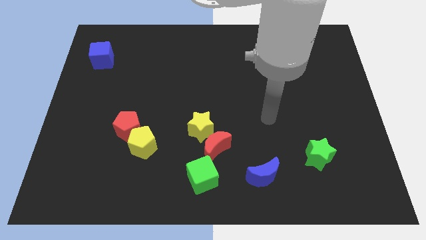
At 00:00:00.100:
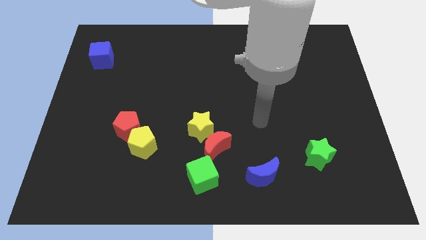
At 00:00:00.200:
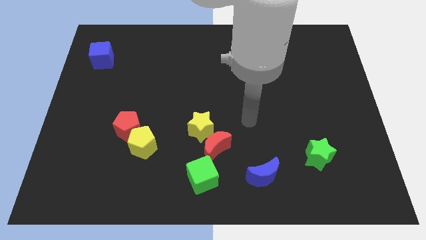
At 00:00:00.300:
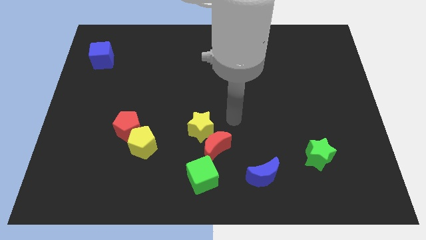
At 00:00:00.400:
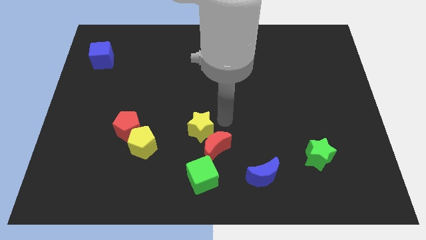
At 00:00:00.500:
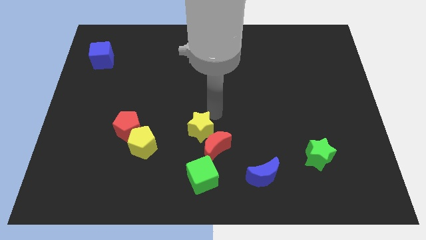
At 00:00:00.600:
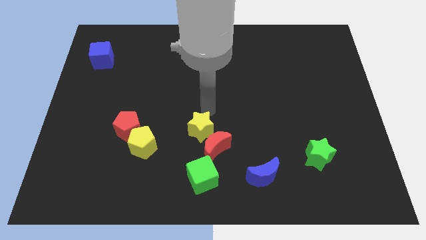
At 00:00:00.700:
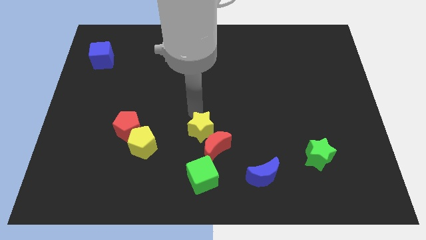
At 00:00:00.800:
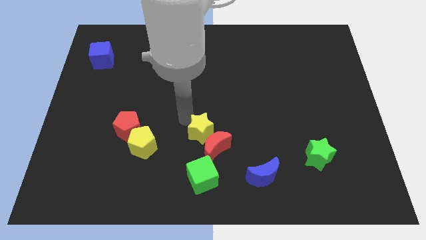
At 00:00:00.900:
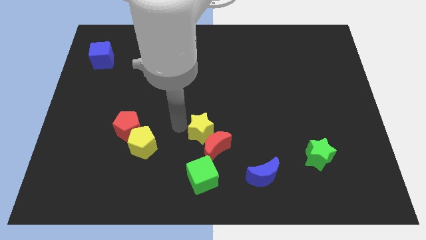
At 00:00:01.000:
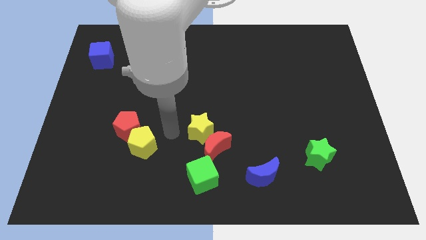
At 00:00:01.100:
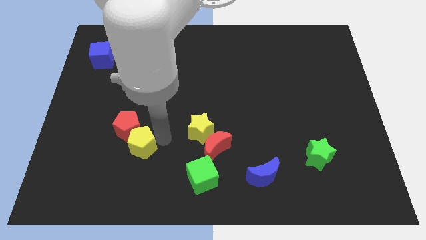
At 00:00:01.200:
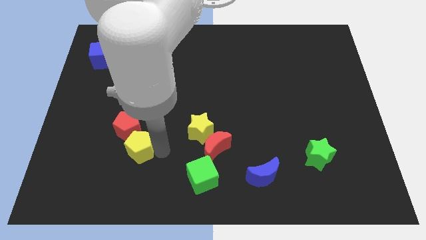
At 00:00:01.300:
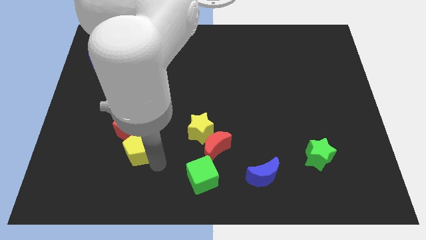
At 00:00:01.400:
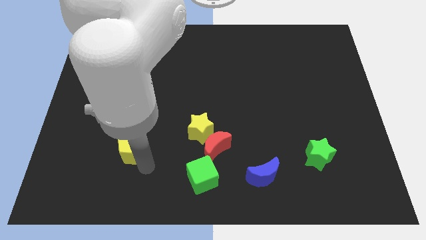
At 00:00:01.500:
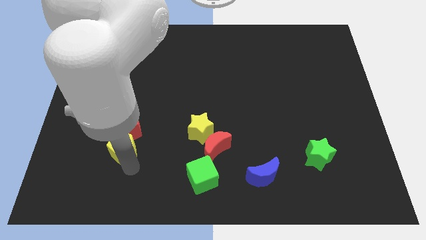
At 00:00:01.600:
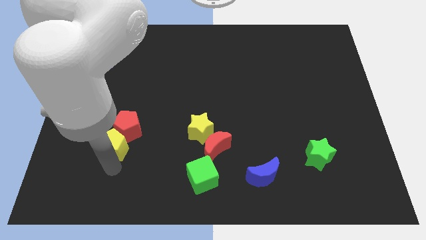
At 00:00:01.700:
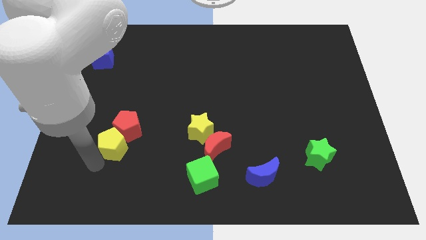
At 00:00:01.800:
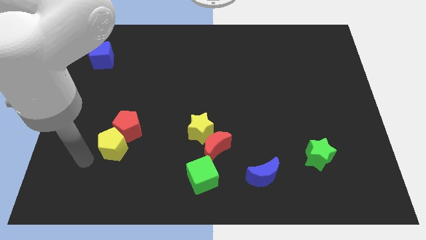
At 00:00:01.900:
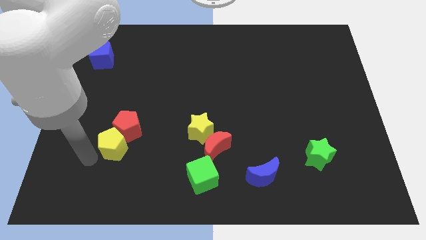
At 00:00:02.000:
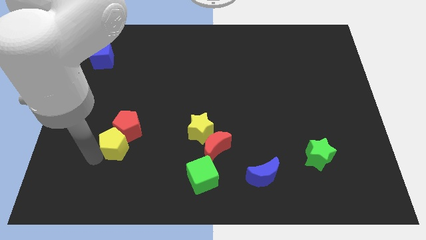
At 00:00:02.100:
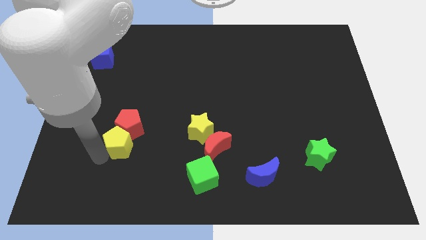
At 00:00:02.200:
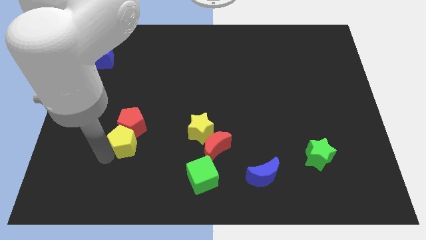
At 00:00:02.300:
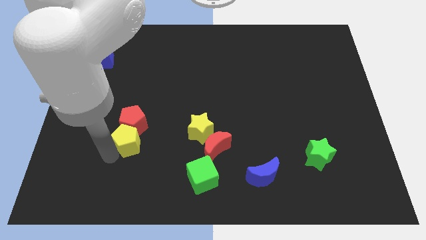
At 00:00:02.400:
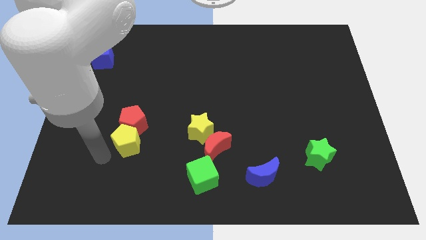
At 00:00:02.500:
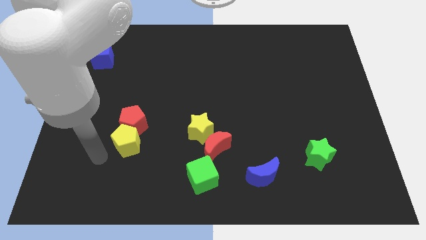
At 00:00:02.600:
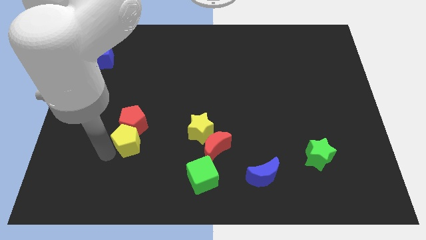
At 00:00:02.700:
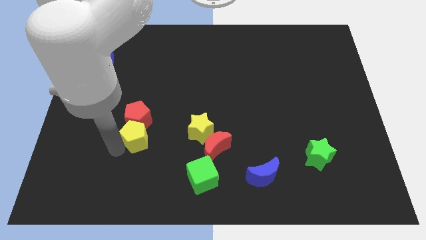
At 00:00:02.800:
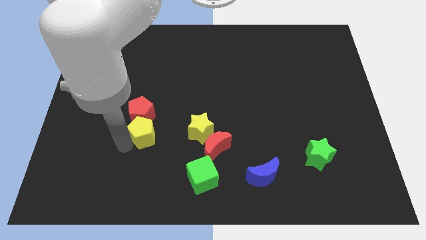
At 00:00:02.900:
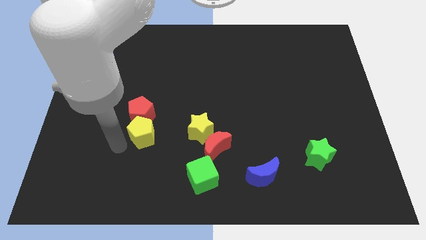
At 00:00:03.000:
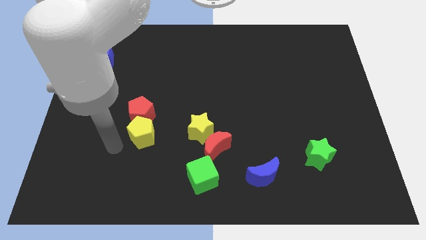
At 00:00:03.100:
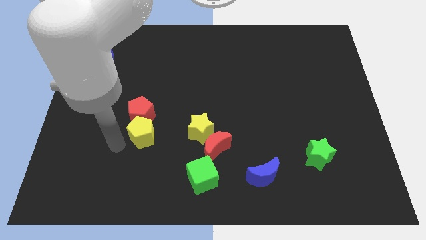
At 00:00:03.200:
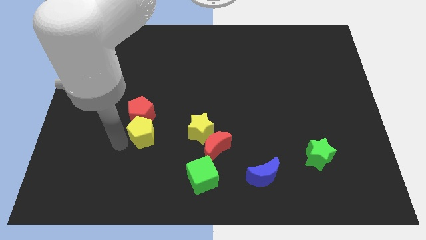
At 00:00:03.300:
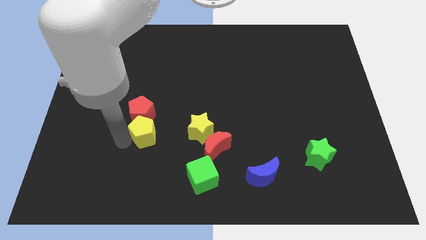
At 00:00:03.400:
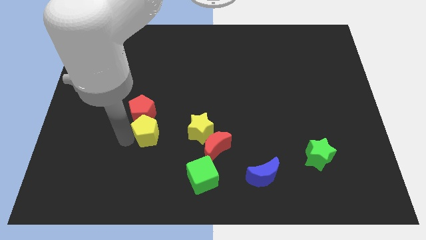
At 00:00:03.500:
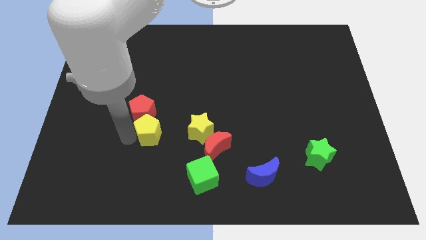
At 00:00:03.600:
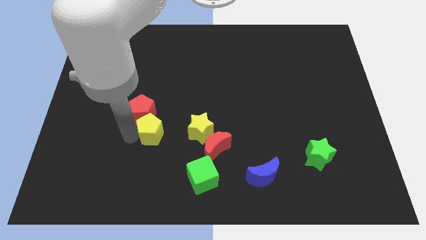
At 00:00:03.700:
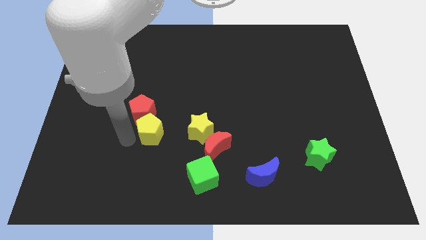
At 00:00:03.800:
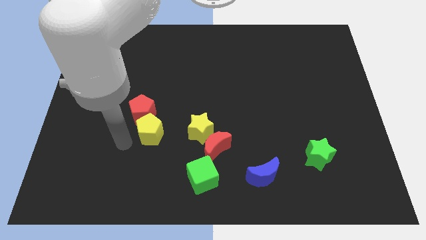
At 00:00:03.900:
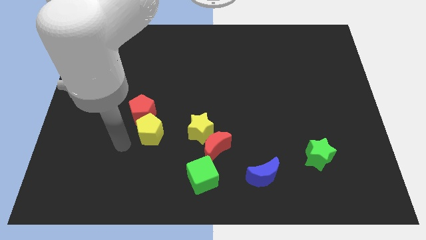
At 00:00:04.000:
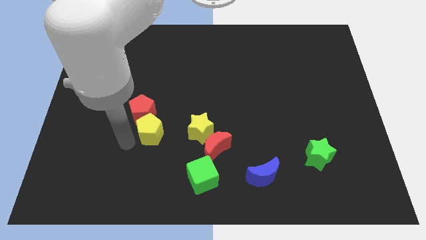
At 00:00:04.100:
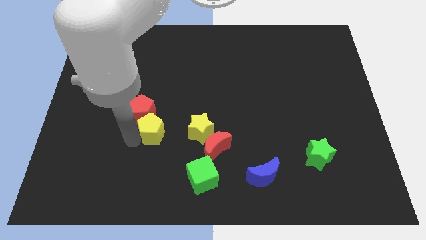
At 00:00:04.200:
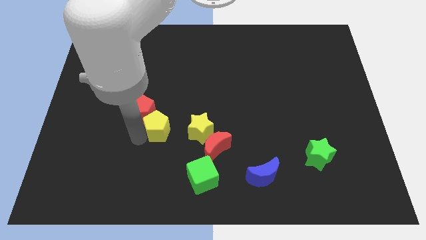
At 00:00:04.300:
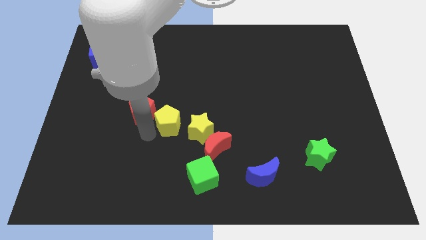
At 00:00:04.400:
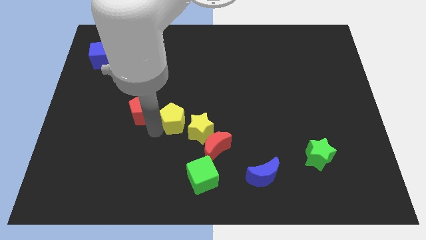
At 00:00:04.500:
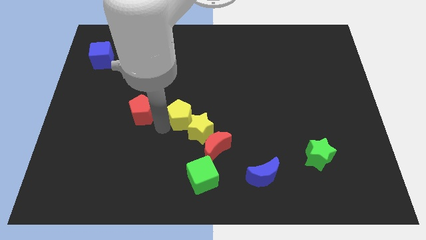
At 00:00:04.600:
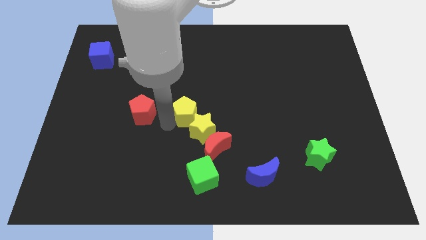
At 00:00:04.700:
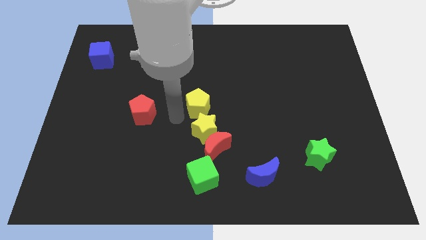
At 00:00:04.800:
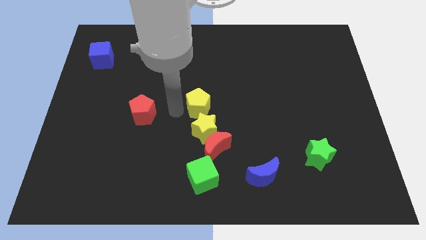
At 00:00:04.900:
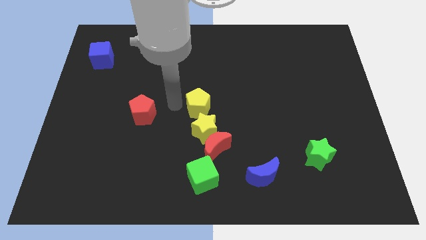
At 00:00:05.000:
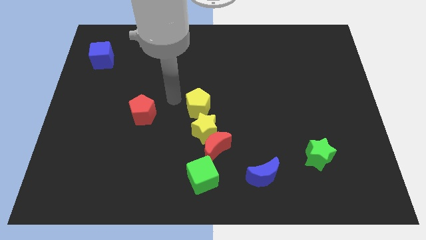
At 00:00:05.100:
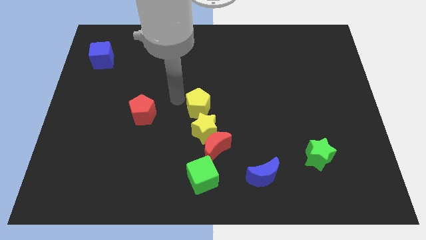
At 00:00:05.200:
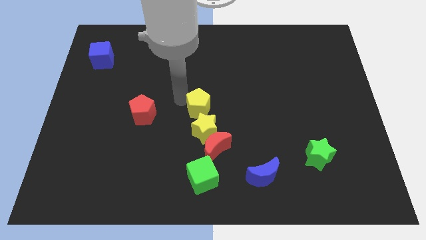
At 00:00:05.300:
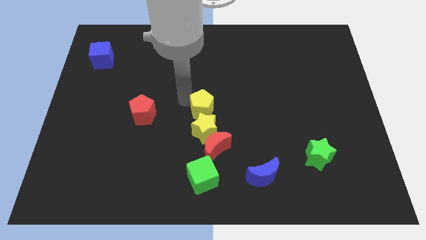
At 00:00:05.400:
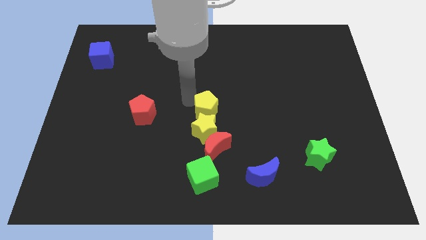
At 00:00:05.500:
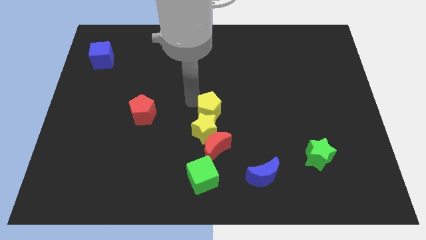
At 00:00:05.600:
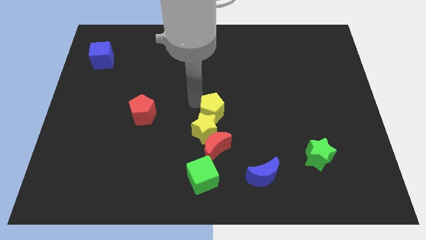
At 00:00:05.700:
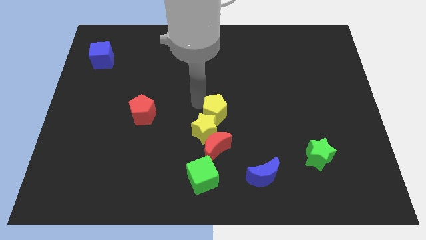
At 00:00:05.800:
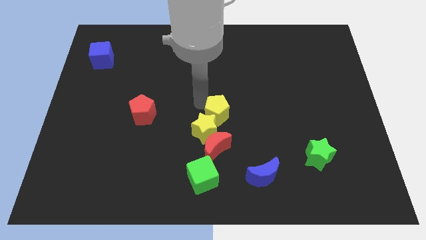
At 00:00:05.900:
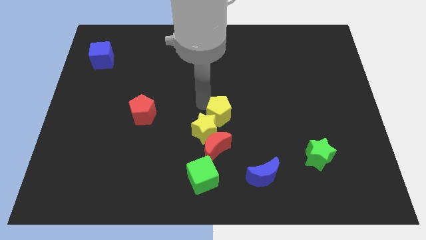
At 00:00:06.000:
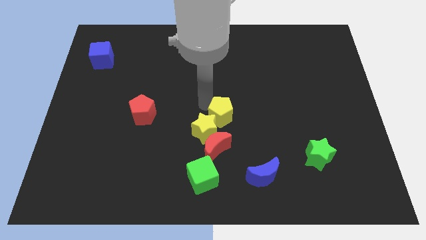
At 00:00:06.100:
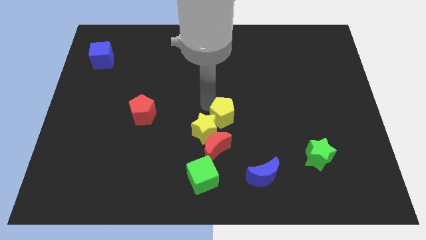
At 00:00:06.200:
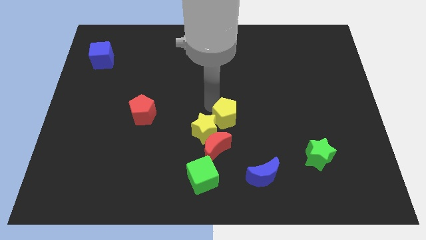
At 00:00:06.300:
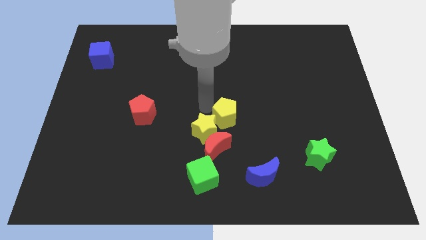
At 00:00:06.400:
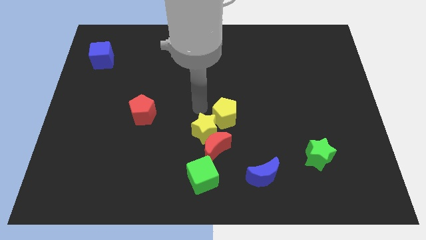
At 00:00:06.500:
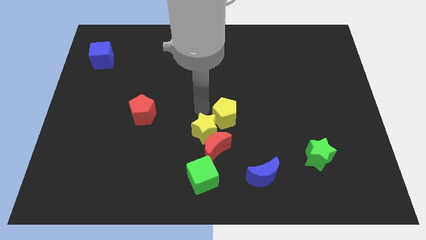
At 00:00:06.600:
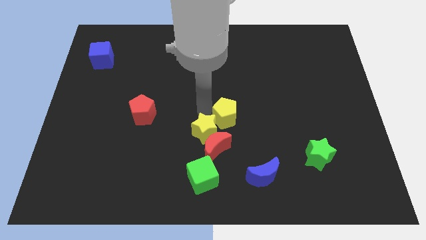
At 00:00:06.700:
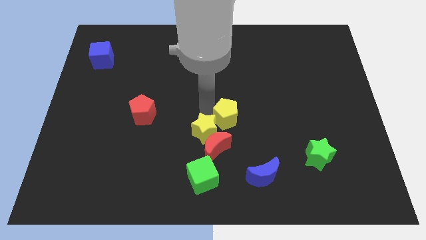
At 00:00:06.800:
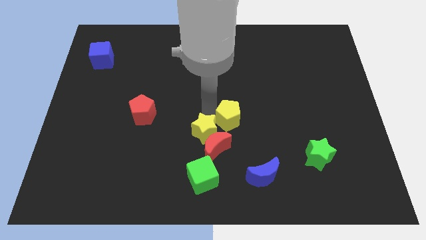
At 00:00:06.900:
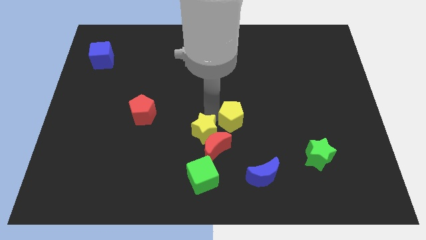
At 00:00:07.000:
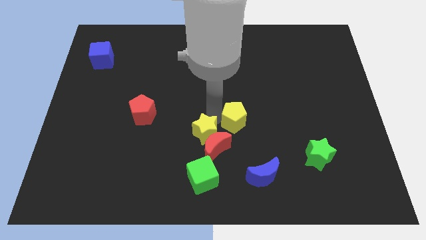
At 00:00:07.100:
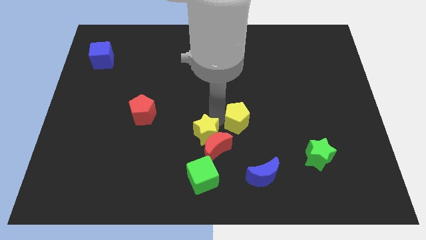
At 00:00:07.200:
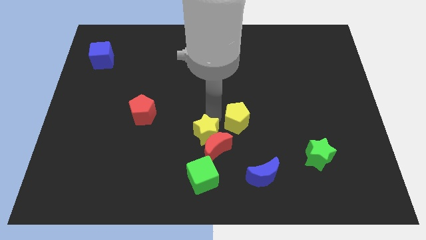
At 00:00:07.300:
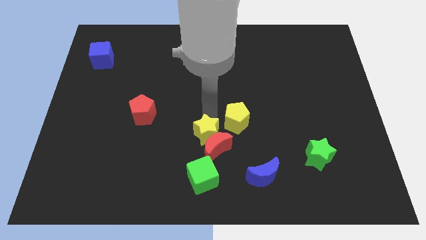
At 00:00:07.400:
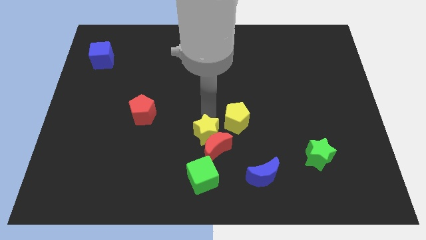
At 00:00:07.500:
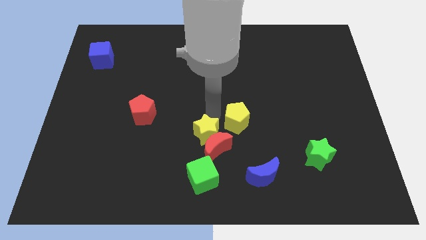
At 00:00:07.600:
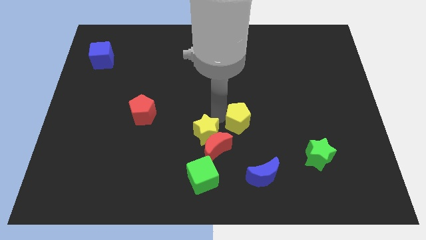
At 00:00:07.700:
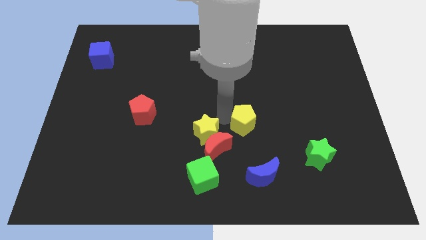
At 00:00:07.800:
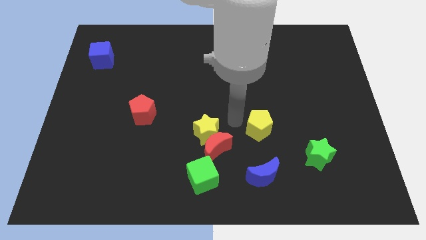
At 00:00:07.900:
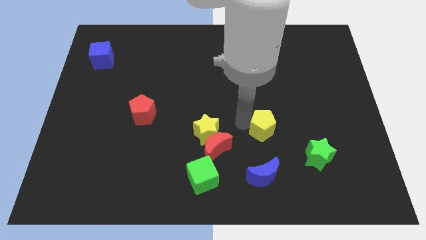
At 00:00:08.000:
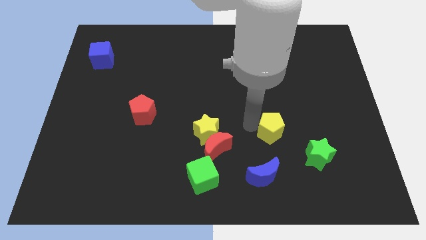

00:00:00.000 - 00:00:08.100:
slide the yellow pentagon diagonally up and to the left of the green star
